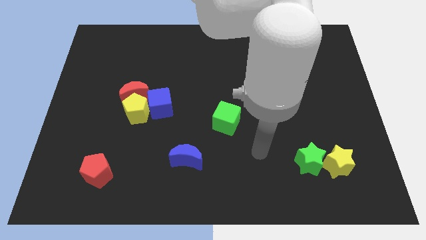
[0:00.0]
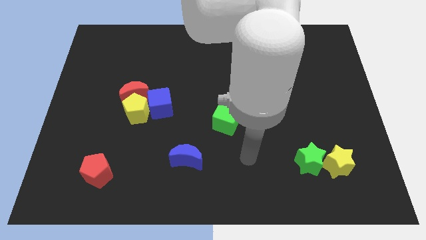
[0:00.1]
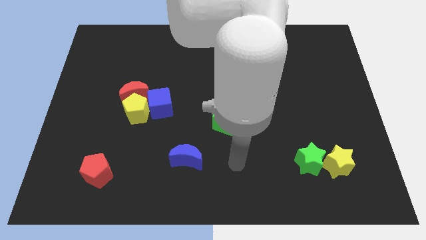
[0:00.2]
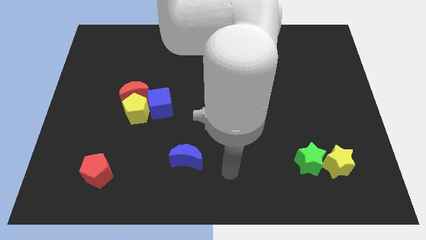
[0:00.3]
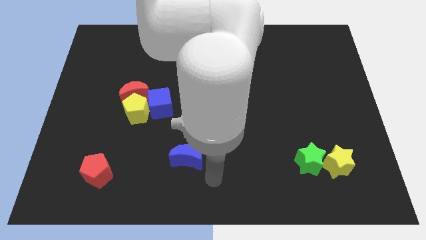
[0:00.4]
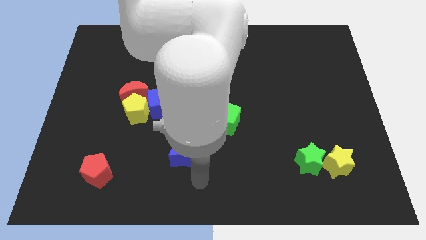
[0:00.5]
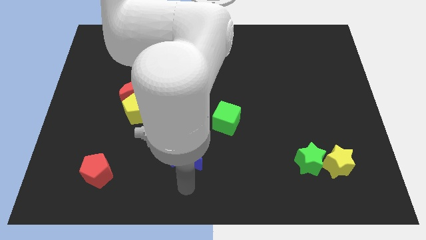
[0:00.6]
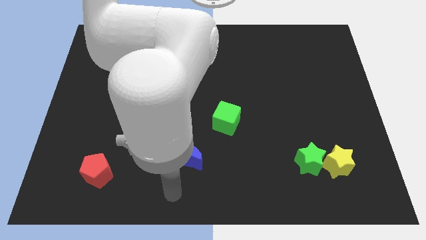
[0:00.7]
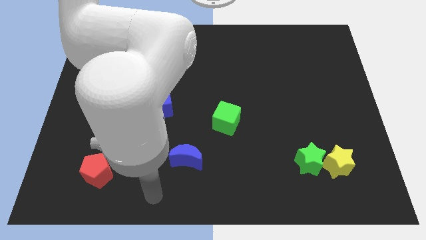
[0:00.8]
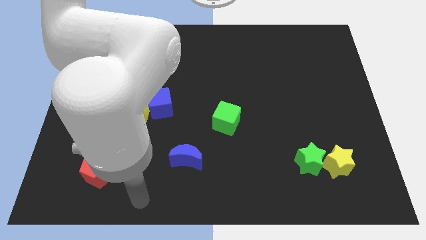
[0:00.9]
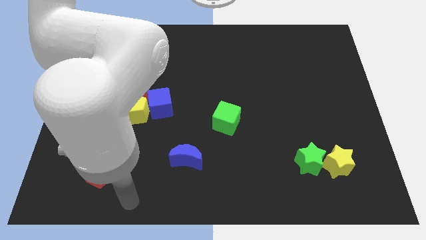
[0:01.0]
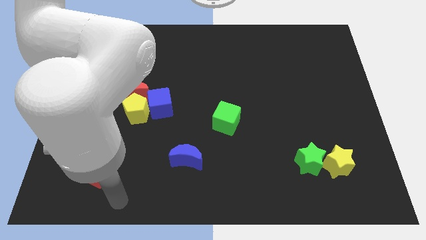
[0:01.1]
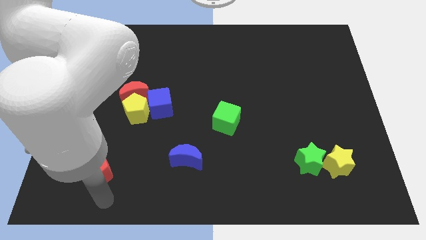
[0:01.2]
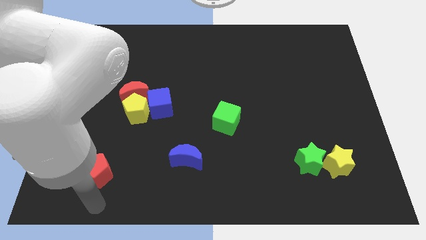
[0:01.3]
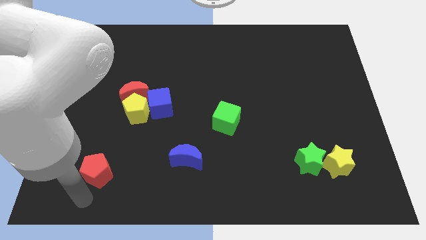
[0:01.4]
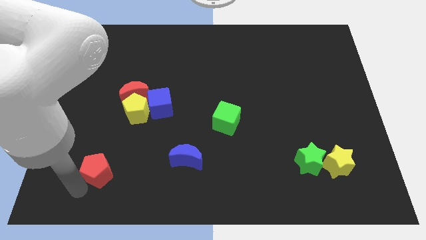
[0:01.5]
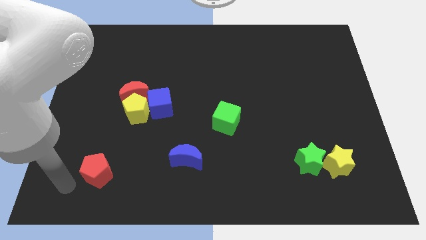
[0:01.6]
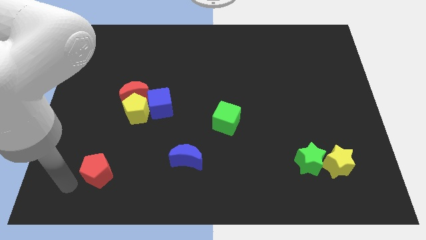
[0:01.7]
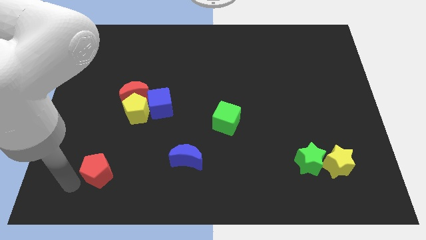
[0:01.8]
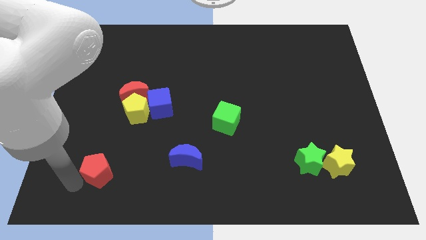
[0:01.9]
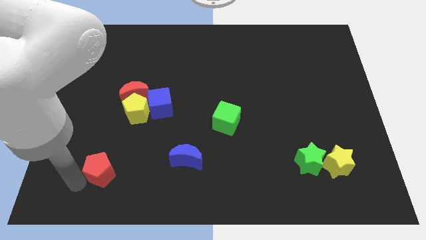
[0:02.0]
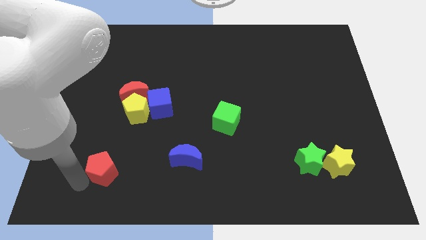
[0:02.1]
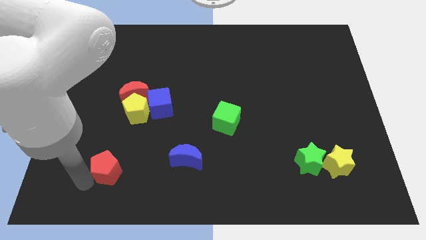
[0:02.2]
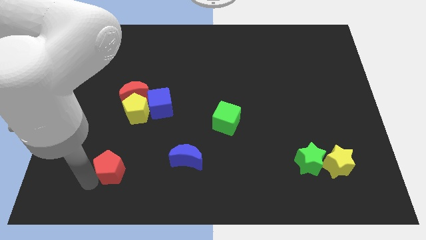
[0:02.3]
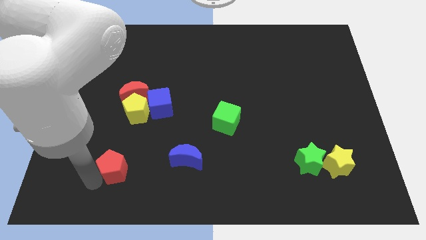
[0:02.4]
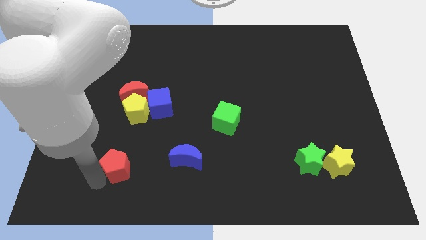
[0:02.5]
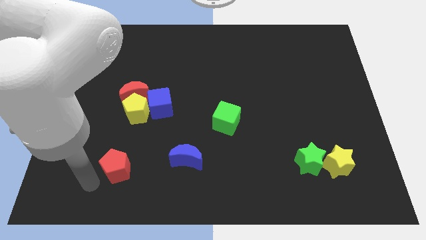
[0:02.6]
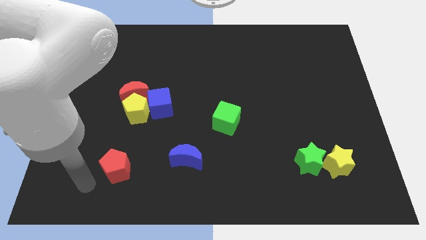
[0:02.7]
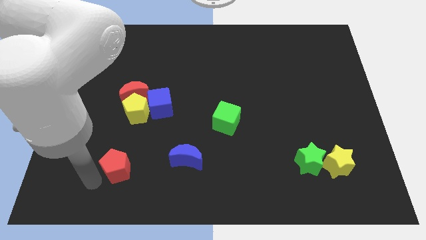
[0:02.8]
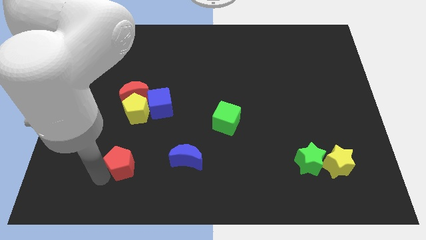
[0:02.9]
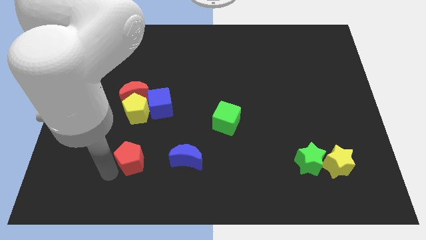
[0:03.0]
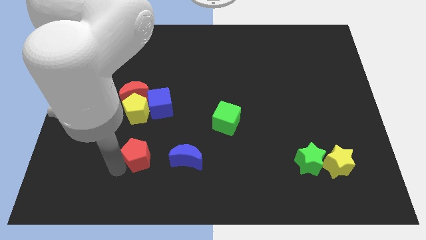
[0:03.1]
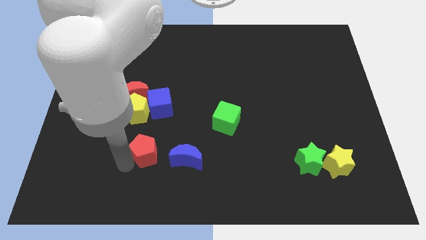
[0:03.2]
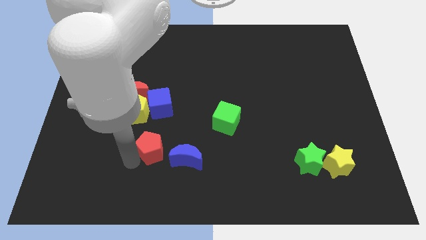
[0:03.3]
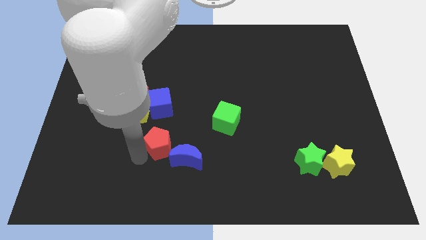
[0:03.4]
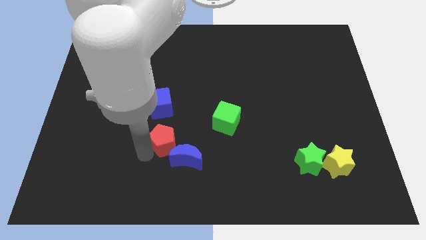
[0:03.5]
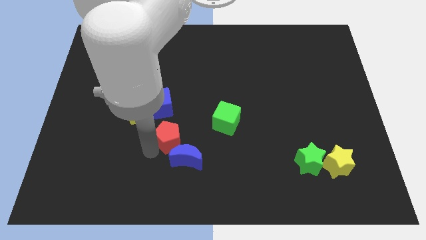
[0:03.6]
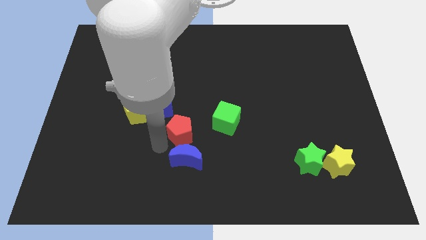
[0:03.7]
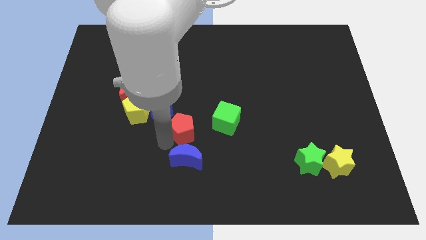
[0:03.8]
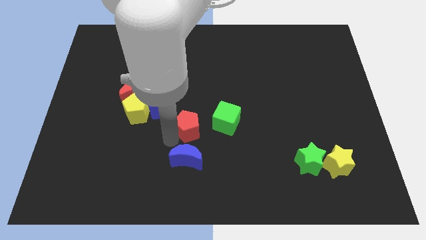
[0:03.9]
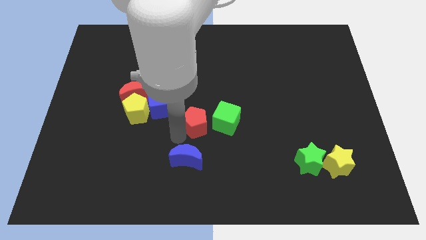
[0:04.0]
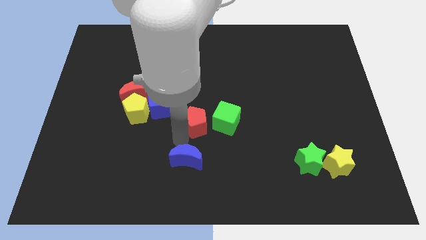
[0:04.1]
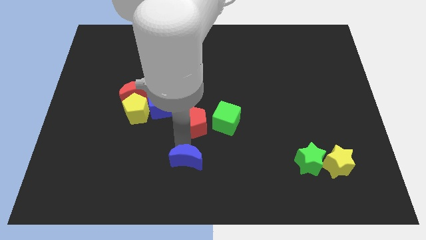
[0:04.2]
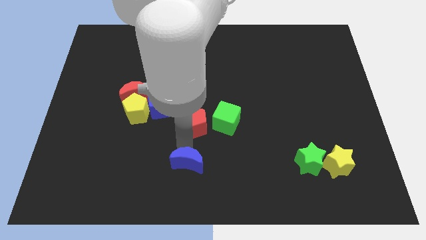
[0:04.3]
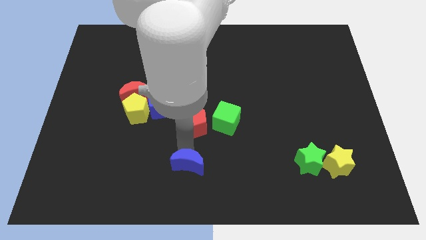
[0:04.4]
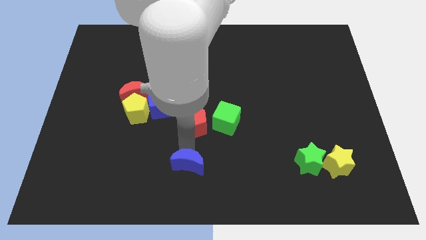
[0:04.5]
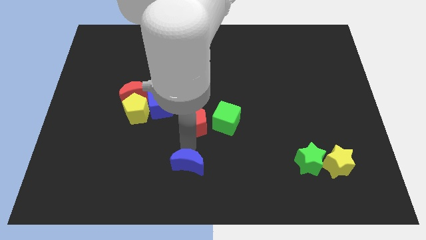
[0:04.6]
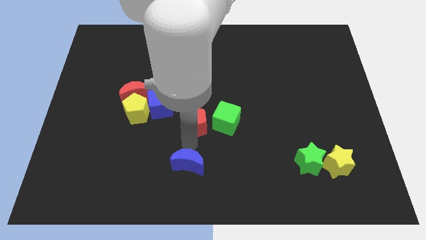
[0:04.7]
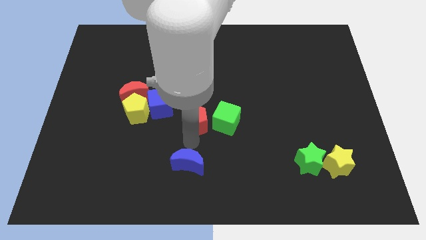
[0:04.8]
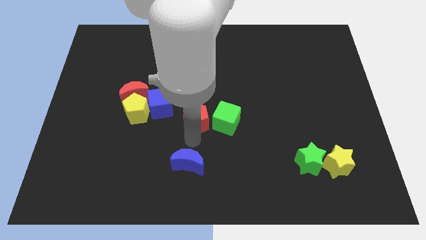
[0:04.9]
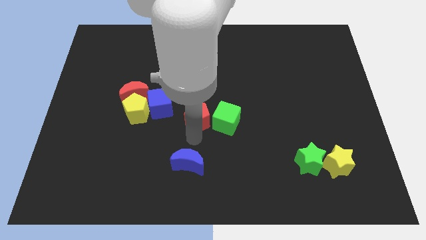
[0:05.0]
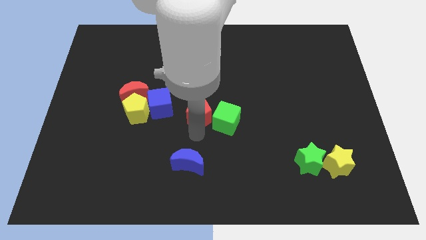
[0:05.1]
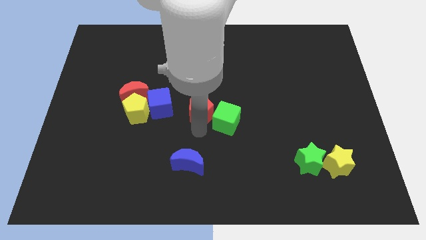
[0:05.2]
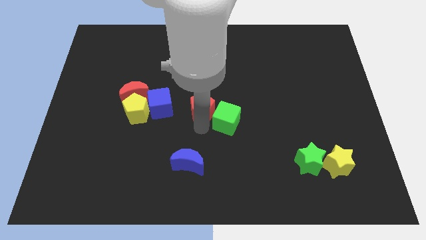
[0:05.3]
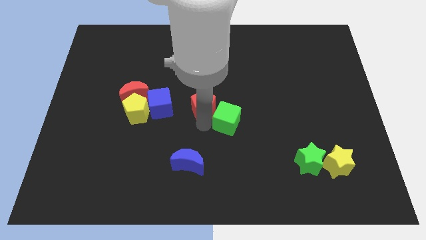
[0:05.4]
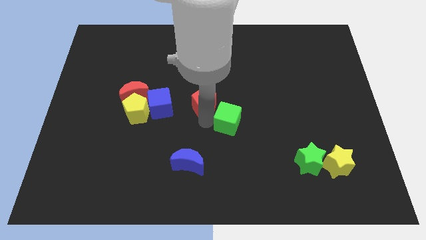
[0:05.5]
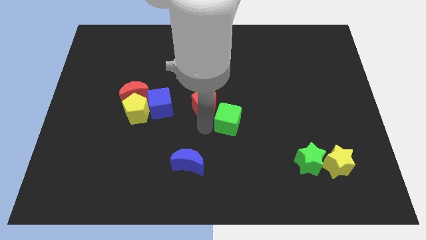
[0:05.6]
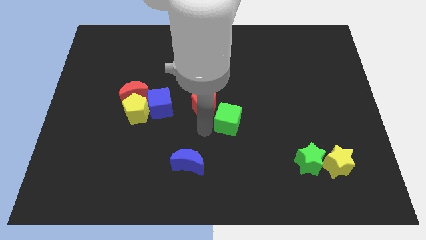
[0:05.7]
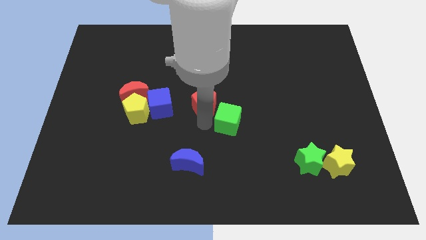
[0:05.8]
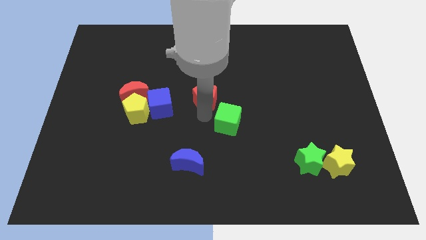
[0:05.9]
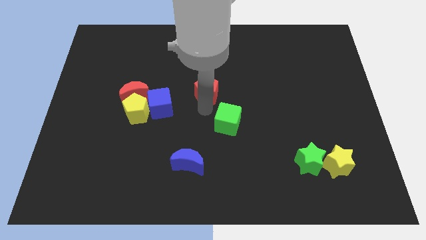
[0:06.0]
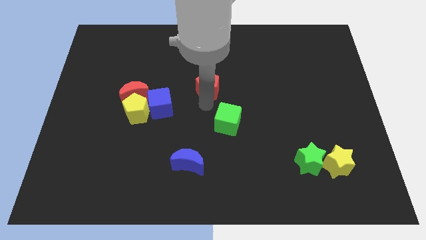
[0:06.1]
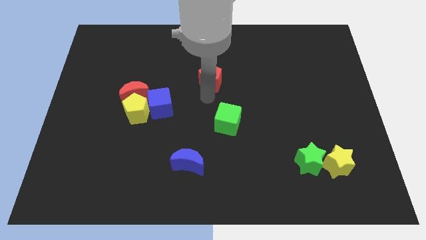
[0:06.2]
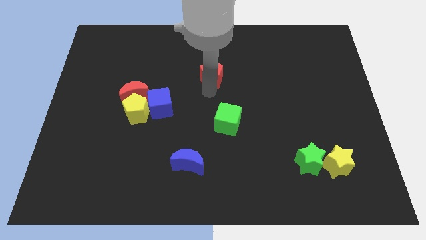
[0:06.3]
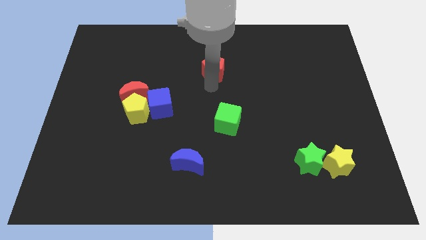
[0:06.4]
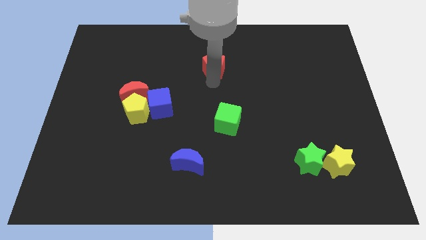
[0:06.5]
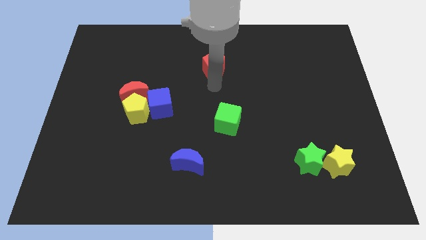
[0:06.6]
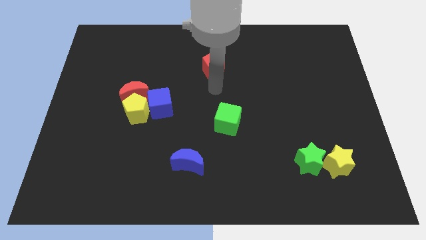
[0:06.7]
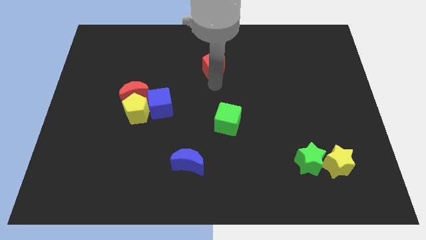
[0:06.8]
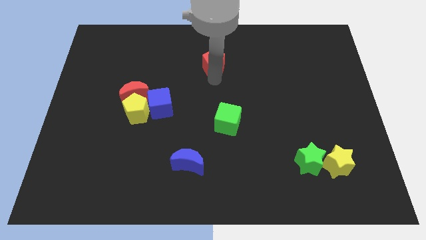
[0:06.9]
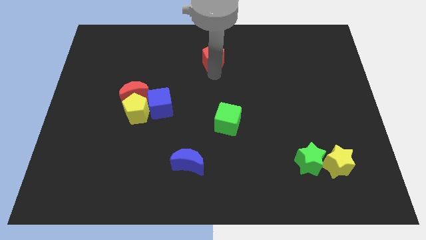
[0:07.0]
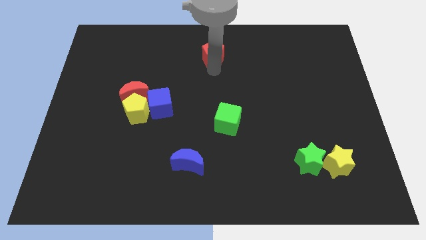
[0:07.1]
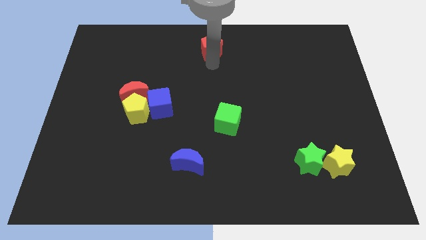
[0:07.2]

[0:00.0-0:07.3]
push the red pentagon to the top side
